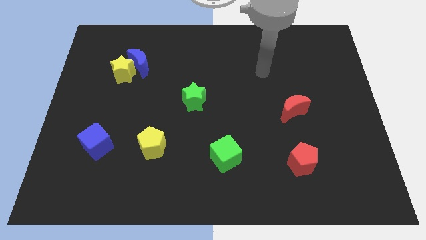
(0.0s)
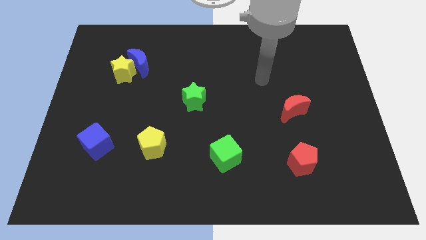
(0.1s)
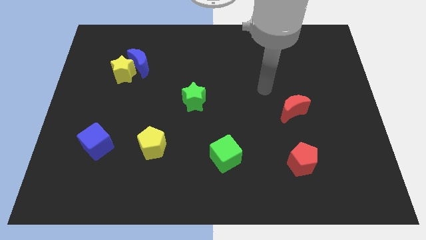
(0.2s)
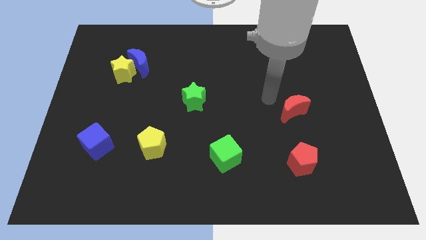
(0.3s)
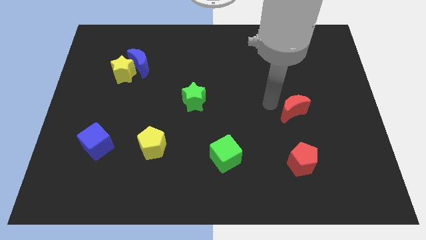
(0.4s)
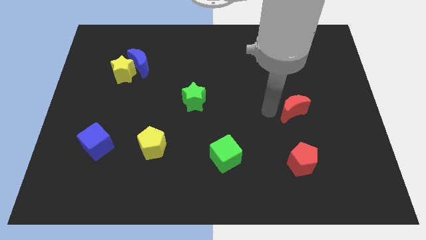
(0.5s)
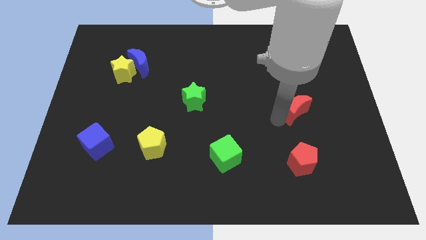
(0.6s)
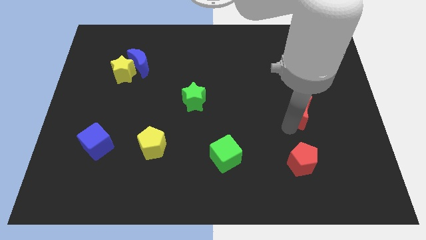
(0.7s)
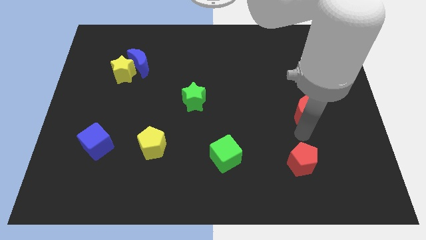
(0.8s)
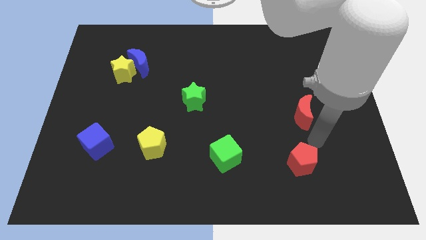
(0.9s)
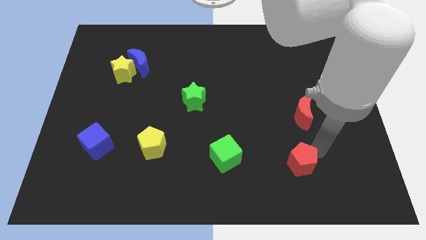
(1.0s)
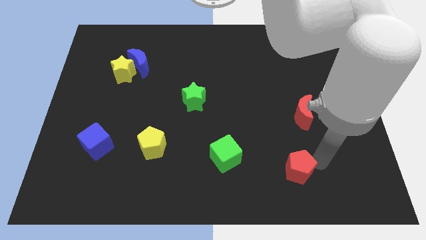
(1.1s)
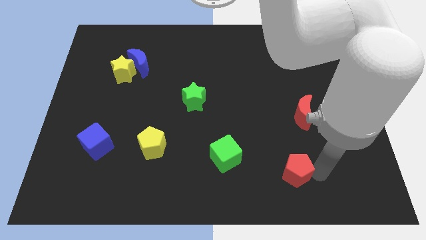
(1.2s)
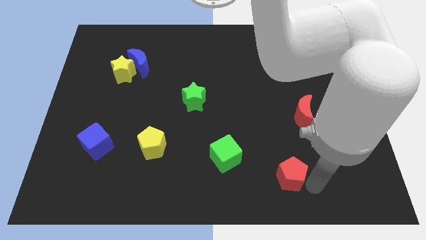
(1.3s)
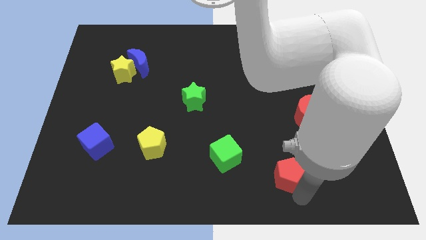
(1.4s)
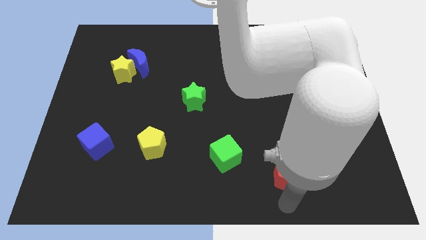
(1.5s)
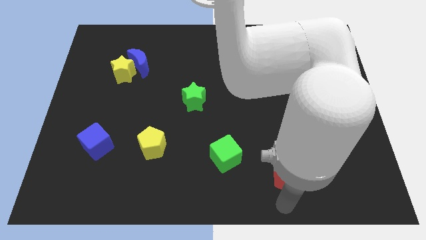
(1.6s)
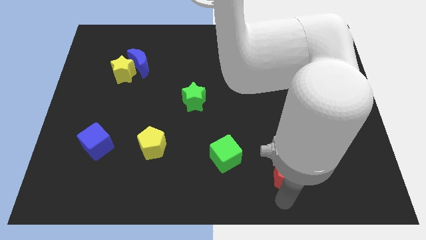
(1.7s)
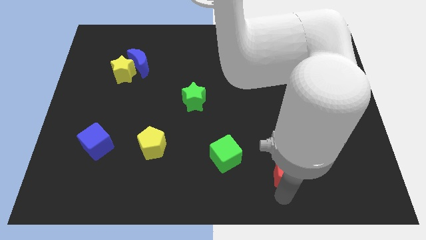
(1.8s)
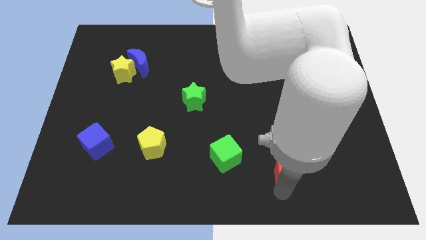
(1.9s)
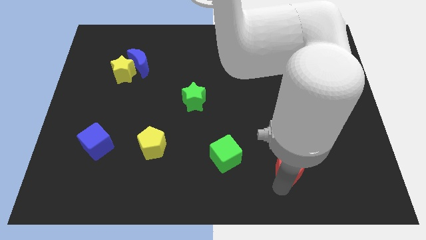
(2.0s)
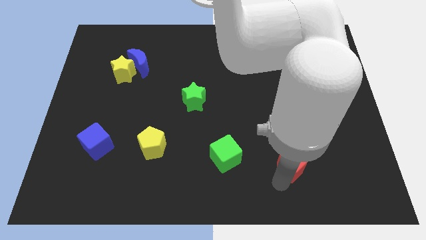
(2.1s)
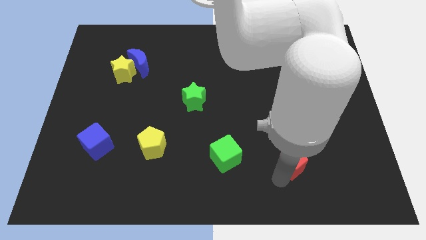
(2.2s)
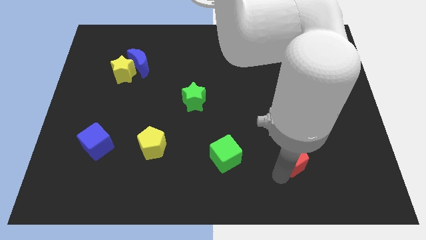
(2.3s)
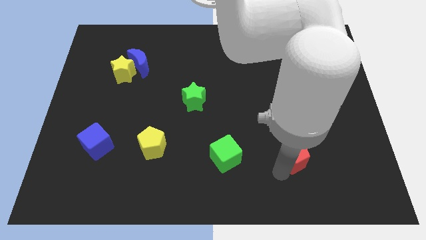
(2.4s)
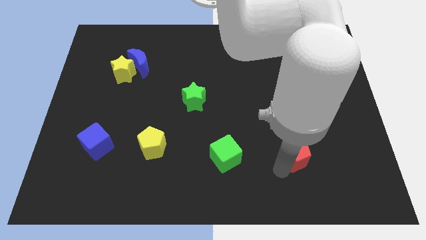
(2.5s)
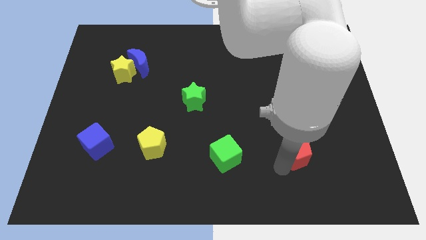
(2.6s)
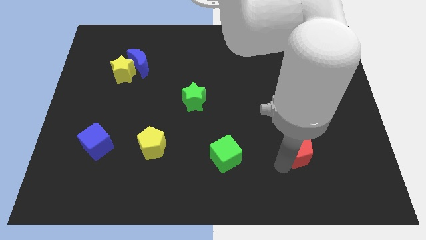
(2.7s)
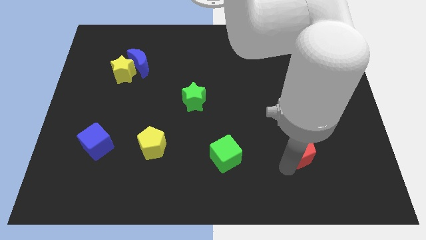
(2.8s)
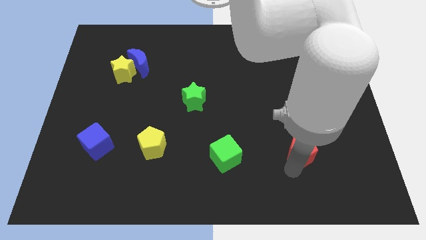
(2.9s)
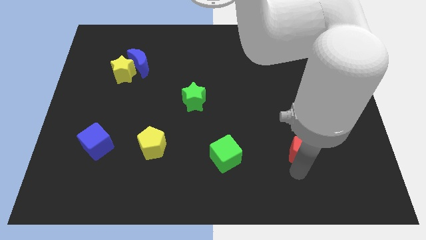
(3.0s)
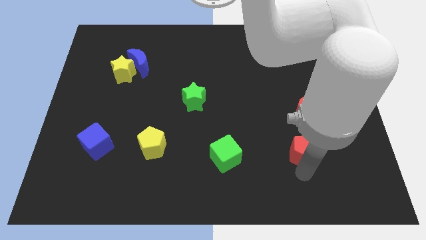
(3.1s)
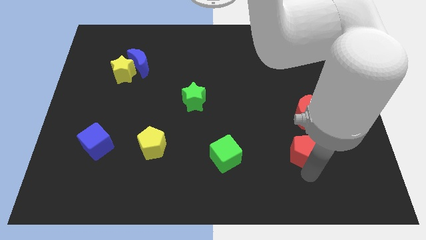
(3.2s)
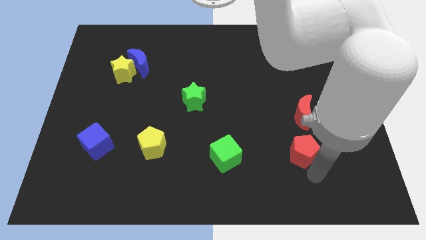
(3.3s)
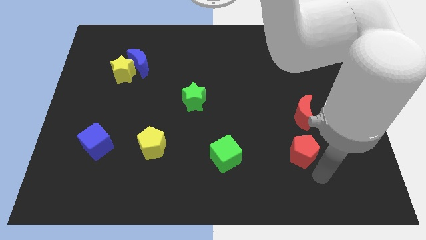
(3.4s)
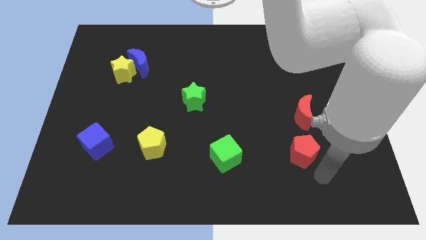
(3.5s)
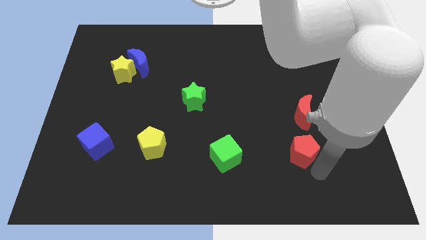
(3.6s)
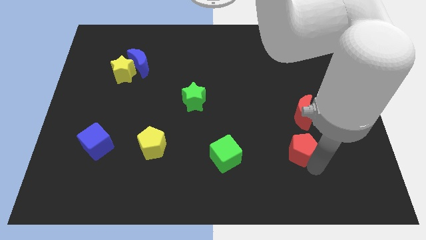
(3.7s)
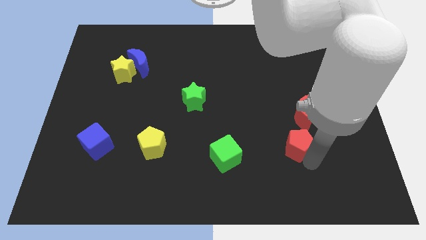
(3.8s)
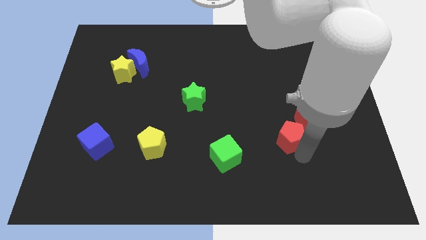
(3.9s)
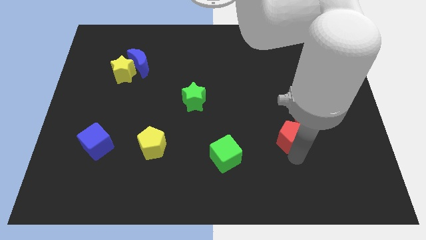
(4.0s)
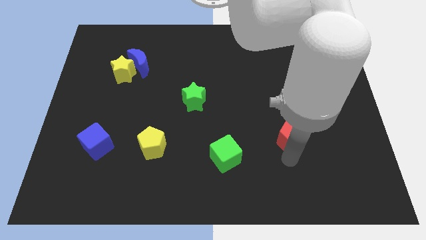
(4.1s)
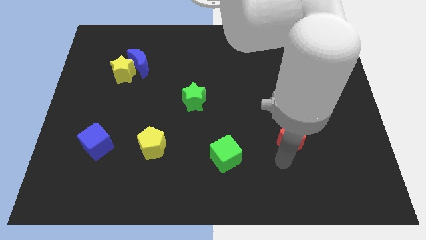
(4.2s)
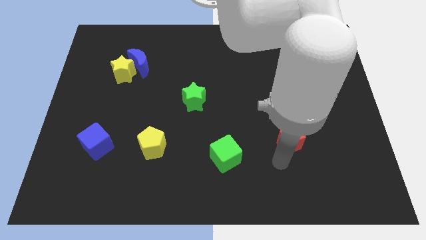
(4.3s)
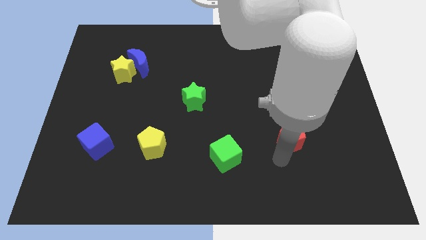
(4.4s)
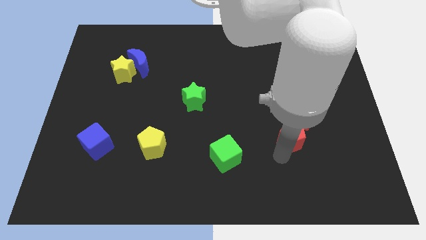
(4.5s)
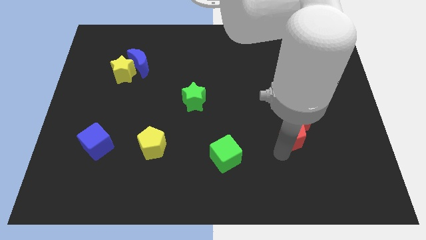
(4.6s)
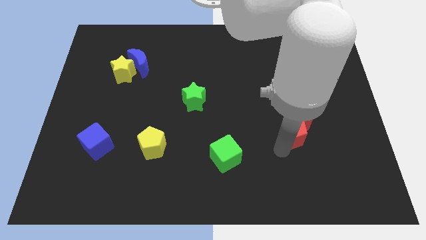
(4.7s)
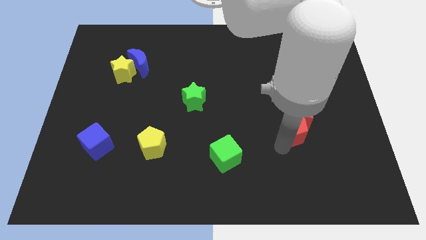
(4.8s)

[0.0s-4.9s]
move the red pentagon towards the red moon

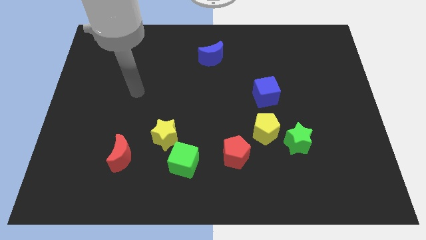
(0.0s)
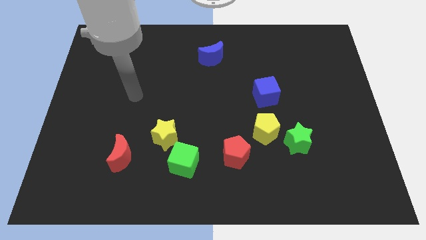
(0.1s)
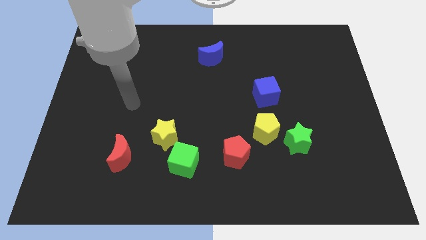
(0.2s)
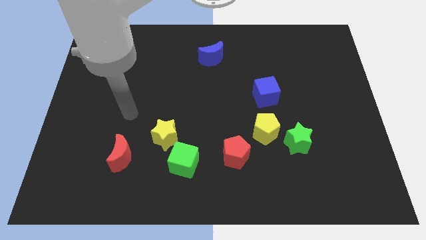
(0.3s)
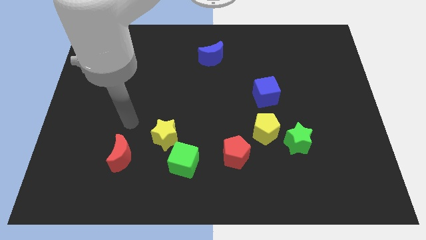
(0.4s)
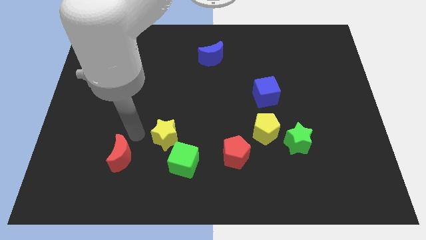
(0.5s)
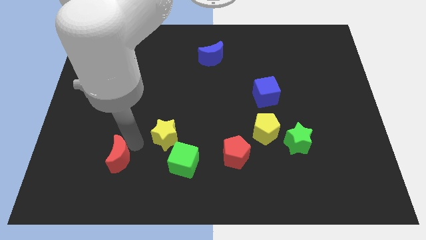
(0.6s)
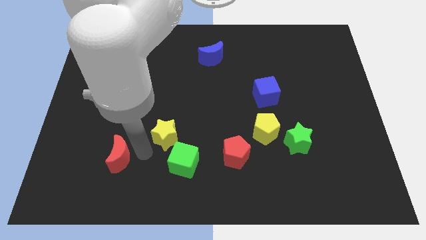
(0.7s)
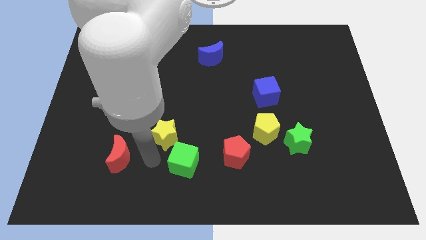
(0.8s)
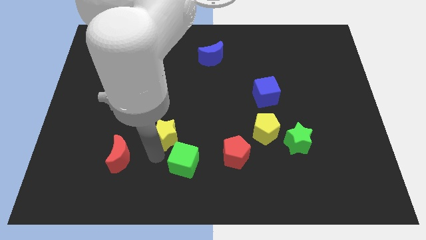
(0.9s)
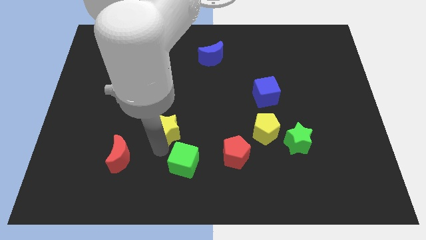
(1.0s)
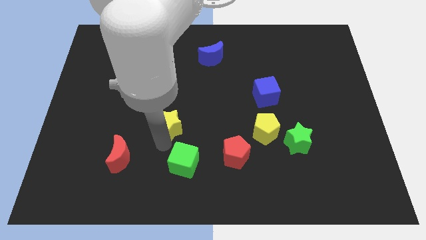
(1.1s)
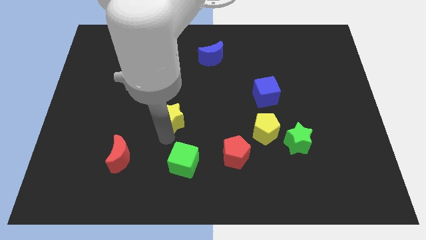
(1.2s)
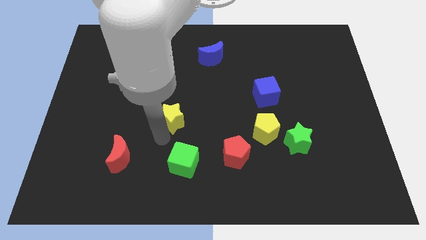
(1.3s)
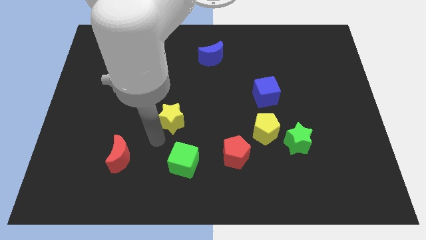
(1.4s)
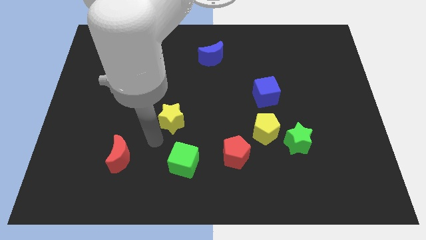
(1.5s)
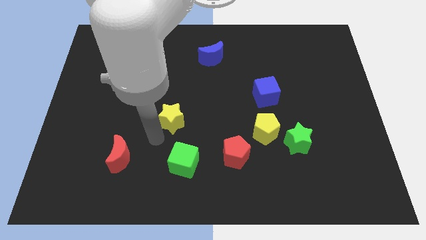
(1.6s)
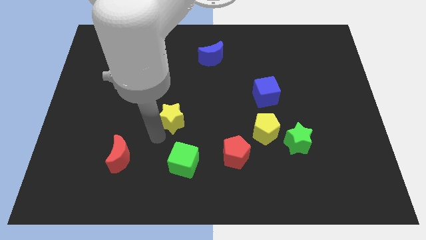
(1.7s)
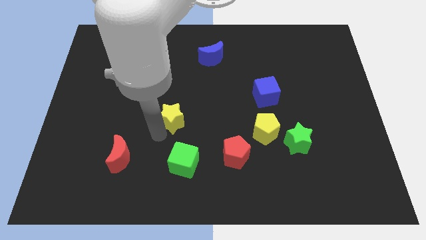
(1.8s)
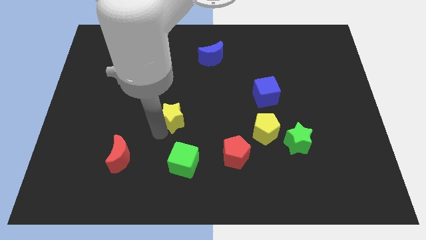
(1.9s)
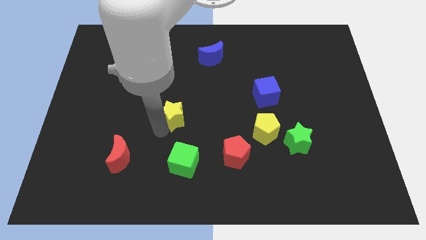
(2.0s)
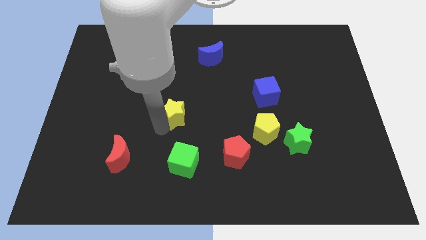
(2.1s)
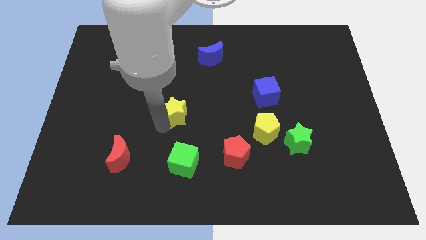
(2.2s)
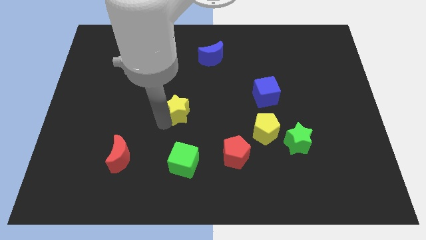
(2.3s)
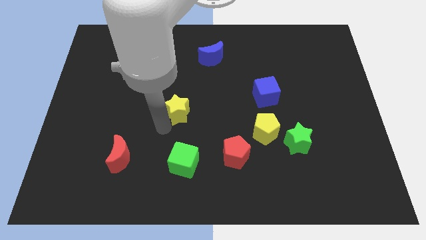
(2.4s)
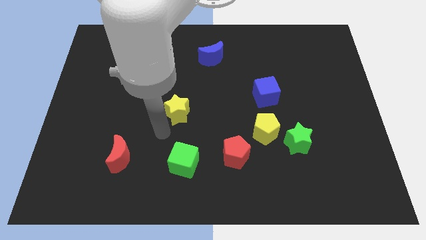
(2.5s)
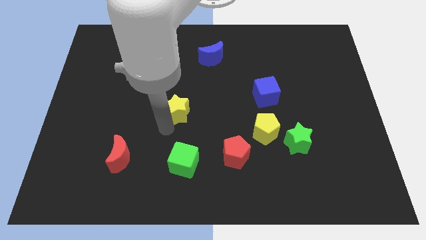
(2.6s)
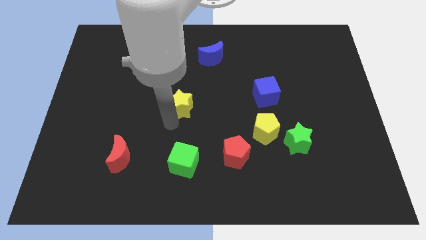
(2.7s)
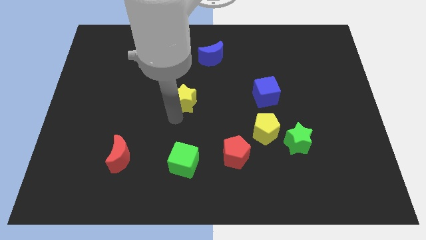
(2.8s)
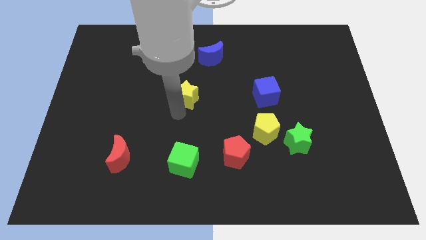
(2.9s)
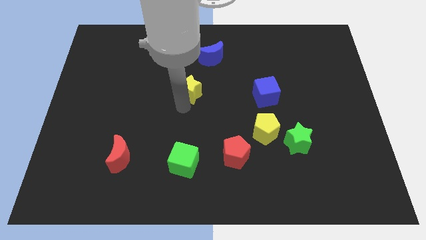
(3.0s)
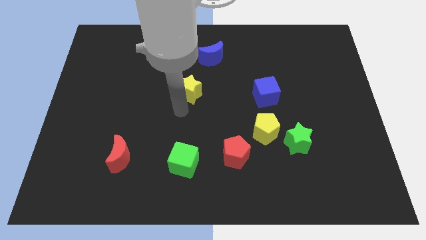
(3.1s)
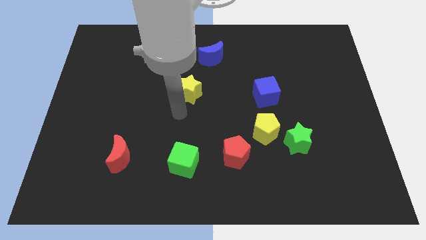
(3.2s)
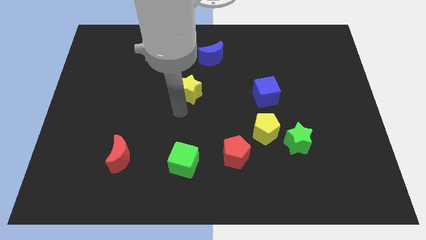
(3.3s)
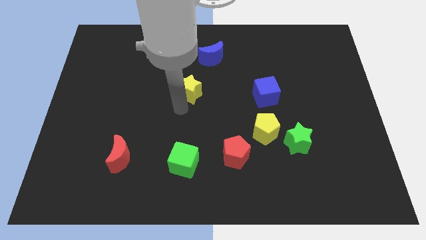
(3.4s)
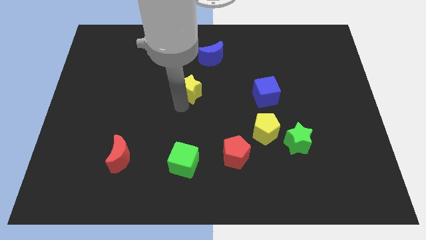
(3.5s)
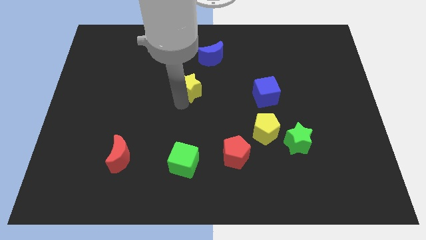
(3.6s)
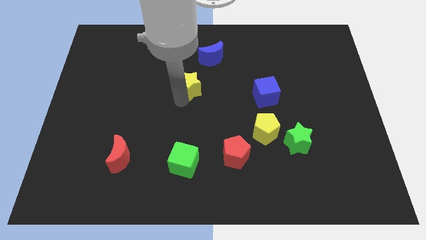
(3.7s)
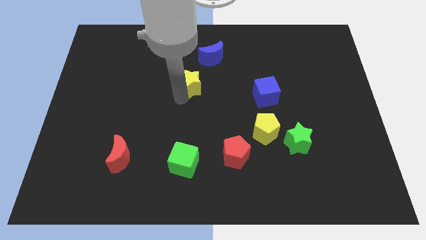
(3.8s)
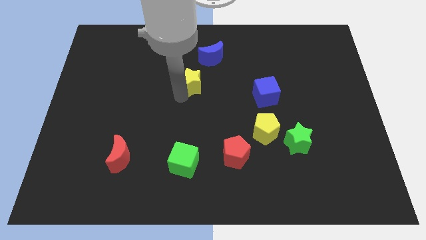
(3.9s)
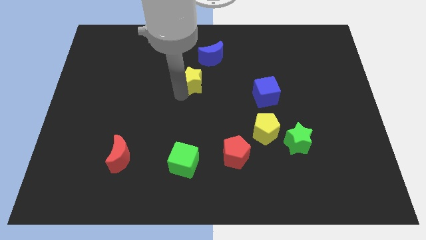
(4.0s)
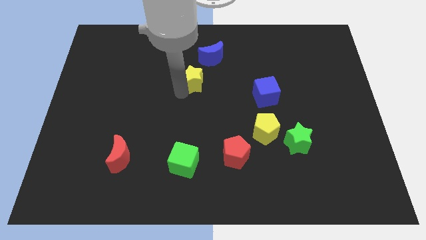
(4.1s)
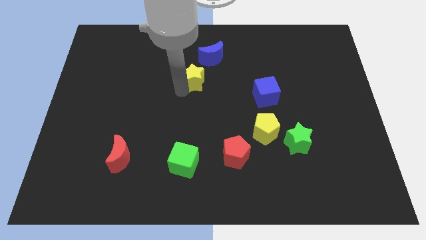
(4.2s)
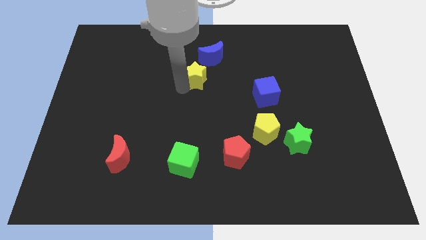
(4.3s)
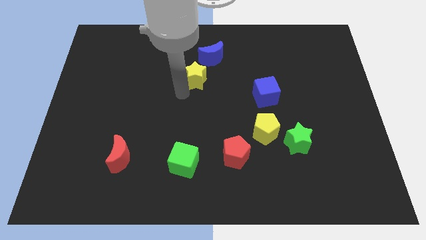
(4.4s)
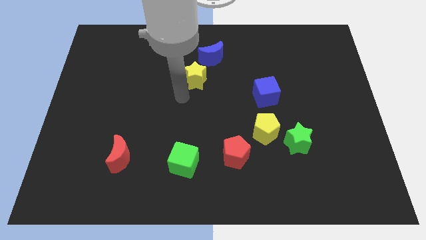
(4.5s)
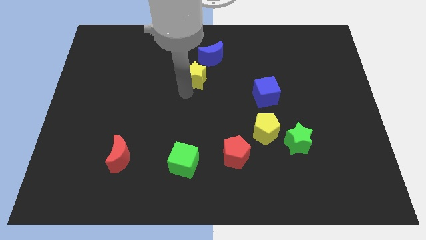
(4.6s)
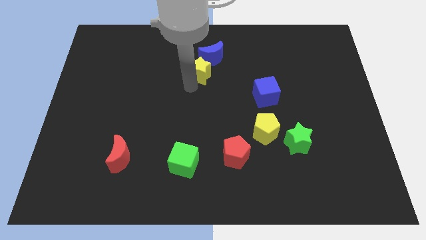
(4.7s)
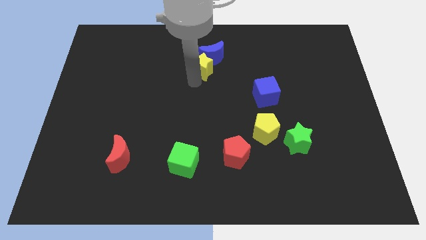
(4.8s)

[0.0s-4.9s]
move the yellow star towards the blue moon
